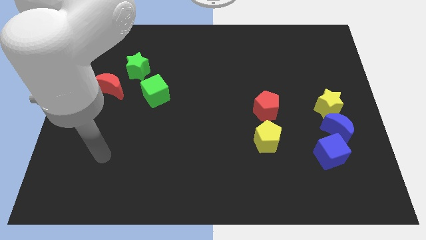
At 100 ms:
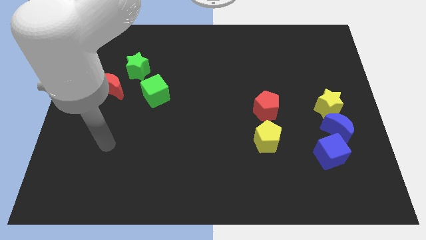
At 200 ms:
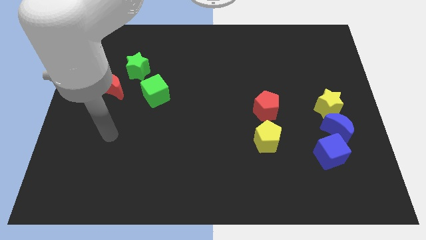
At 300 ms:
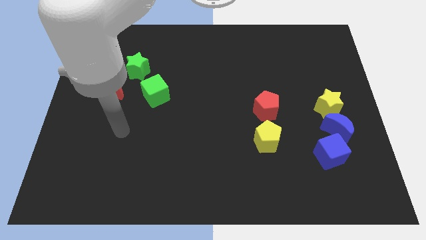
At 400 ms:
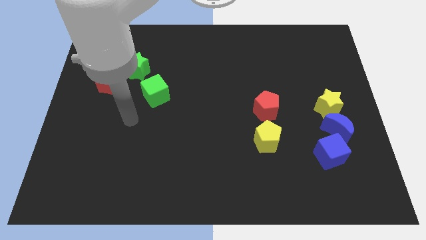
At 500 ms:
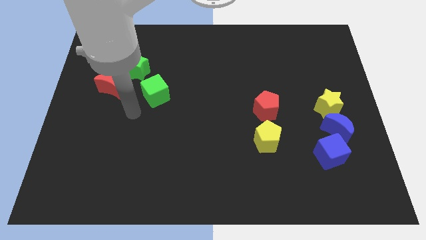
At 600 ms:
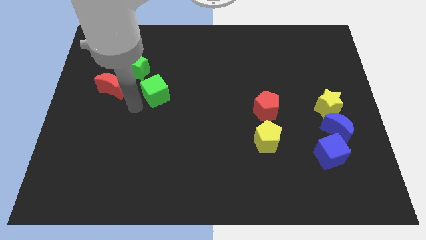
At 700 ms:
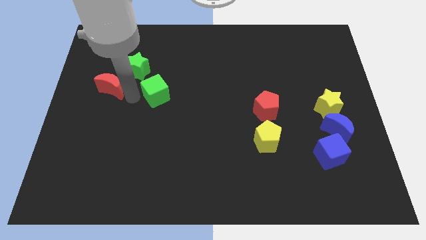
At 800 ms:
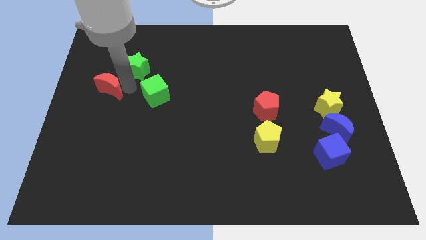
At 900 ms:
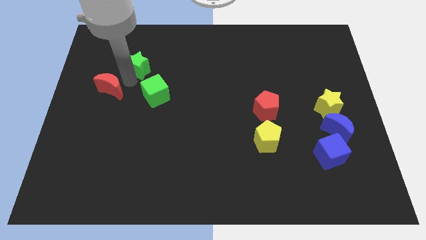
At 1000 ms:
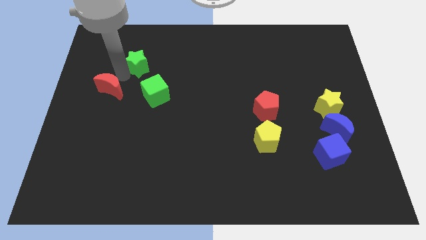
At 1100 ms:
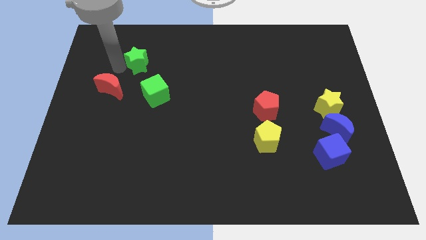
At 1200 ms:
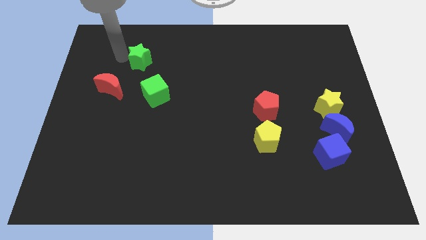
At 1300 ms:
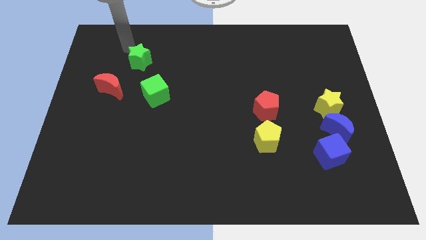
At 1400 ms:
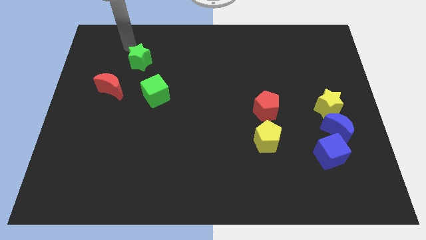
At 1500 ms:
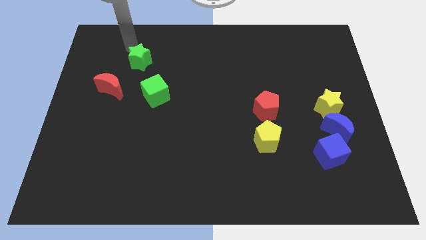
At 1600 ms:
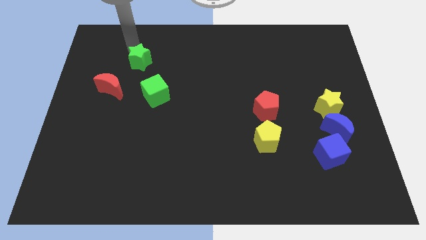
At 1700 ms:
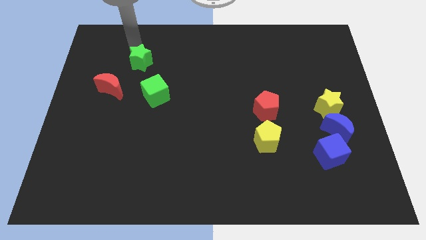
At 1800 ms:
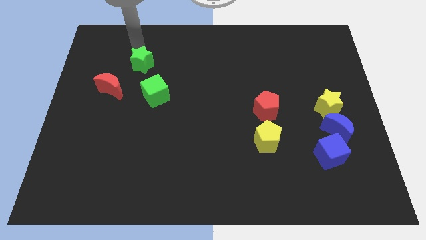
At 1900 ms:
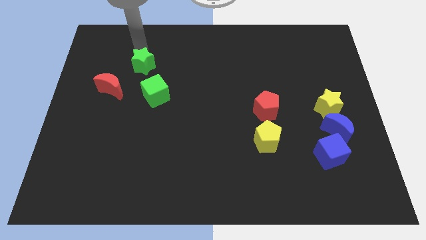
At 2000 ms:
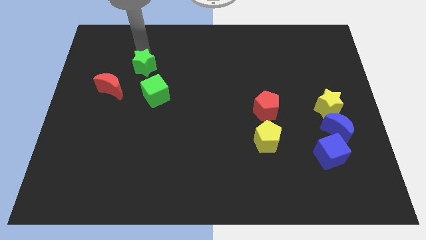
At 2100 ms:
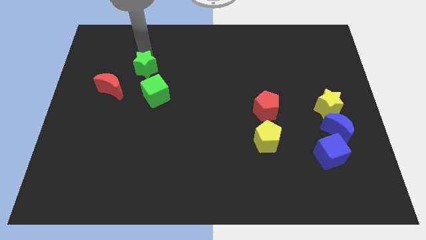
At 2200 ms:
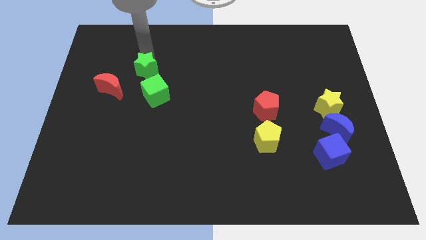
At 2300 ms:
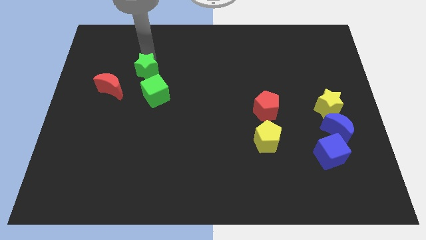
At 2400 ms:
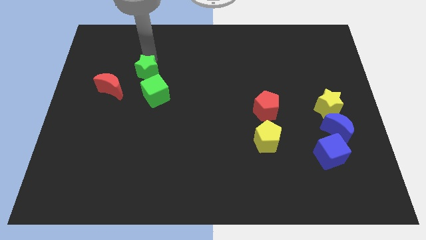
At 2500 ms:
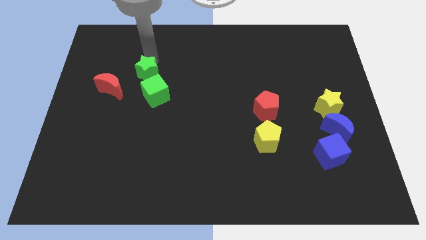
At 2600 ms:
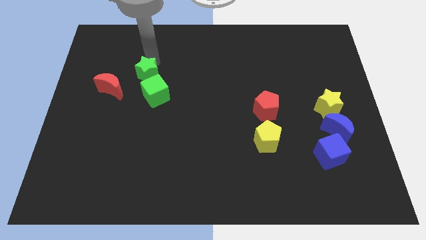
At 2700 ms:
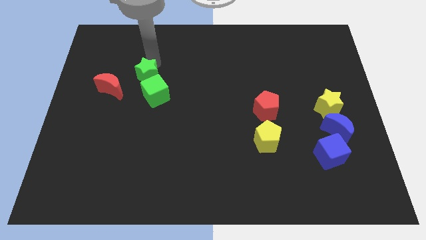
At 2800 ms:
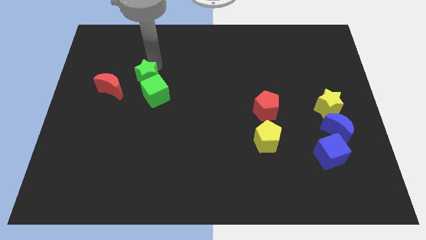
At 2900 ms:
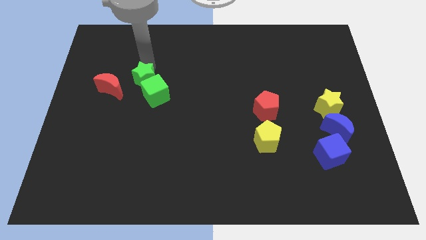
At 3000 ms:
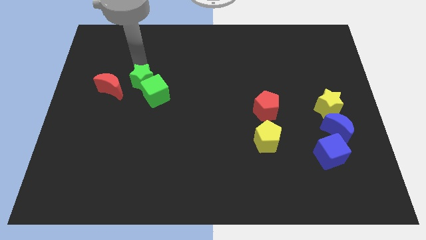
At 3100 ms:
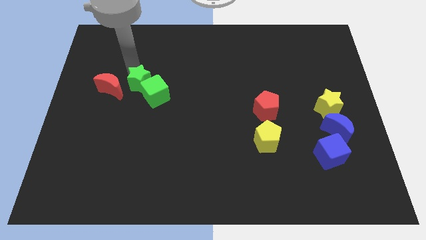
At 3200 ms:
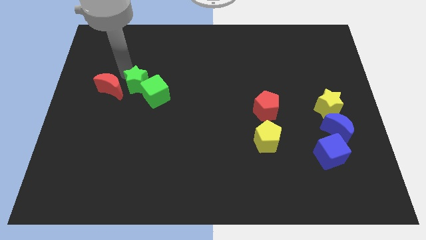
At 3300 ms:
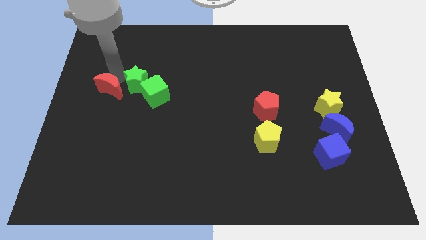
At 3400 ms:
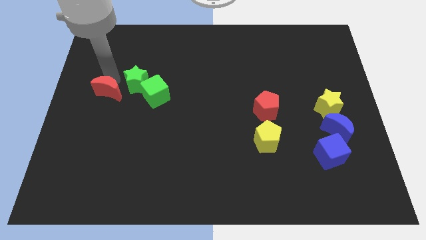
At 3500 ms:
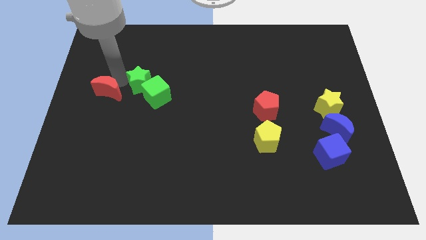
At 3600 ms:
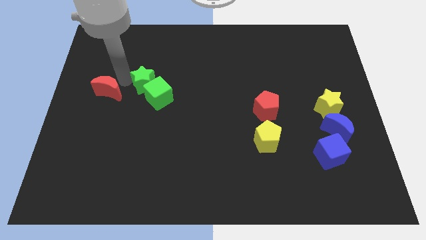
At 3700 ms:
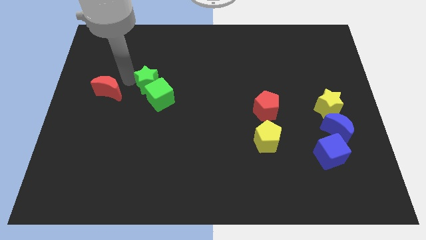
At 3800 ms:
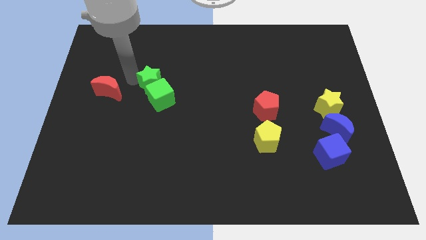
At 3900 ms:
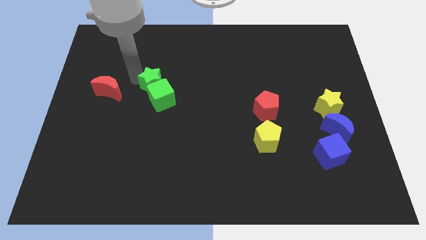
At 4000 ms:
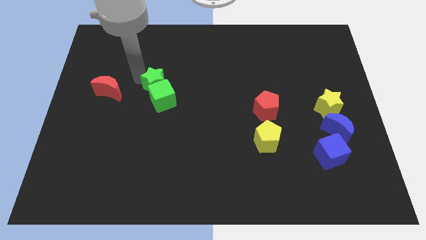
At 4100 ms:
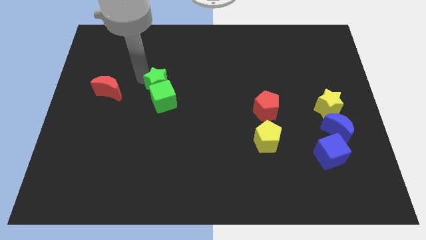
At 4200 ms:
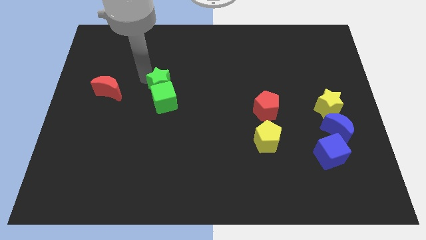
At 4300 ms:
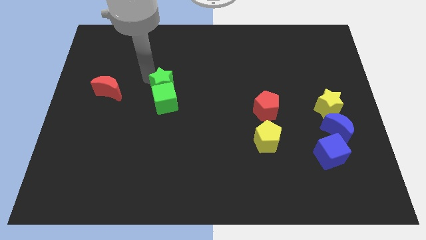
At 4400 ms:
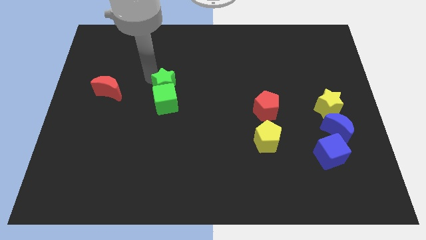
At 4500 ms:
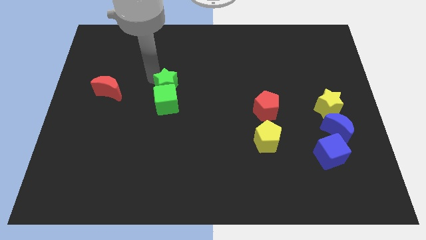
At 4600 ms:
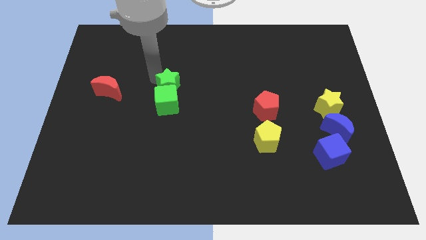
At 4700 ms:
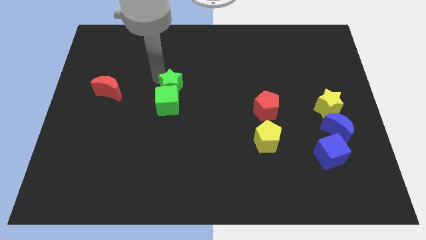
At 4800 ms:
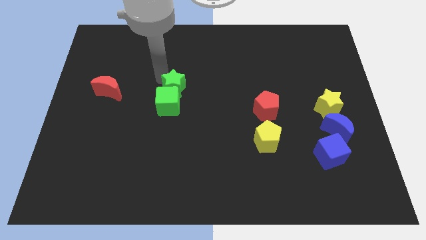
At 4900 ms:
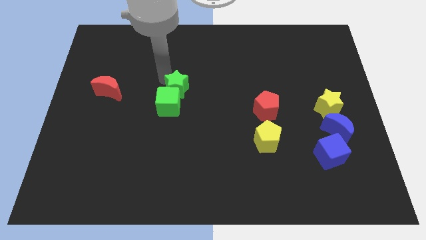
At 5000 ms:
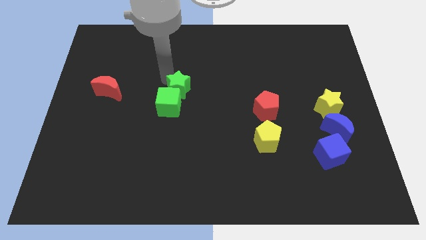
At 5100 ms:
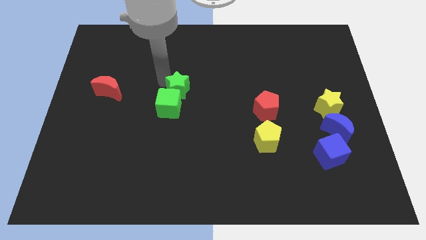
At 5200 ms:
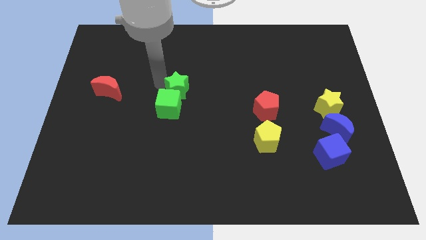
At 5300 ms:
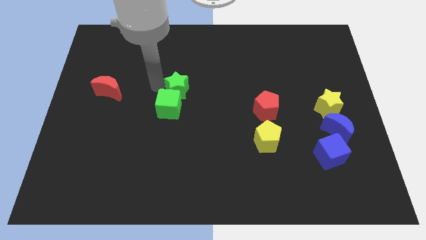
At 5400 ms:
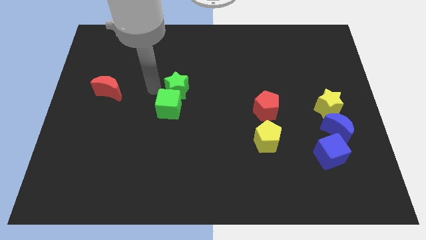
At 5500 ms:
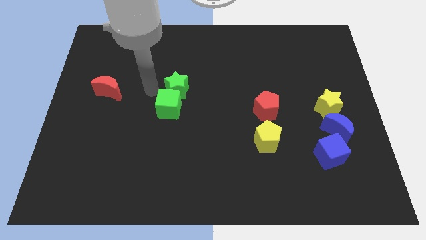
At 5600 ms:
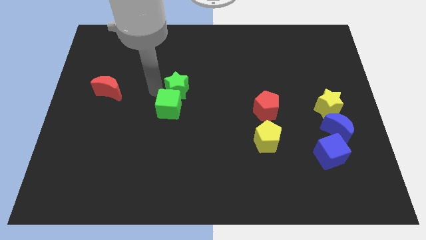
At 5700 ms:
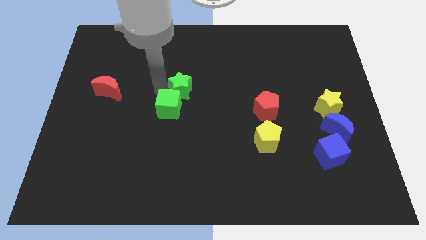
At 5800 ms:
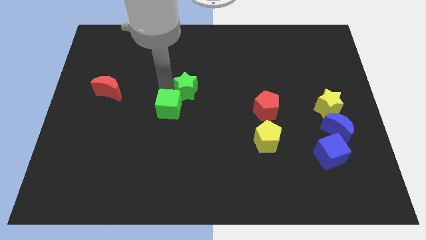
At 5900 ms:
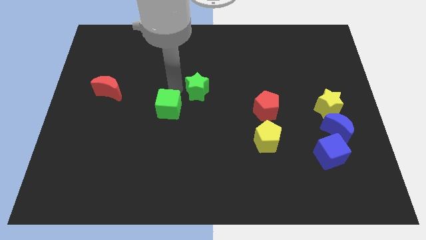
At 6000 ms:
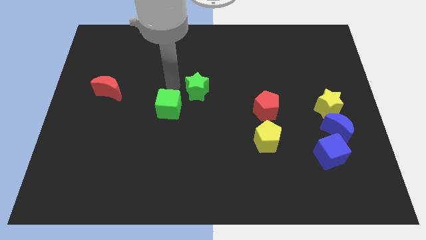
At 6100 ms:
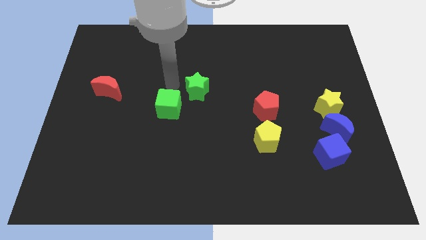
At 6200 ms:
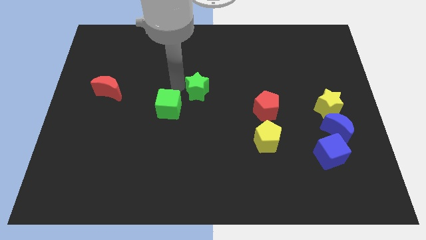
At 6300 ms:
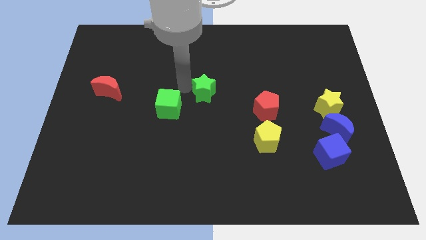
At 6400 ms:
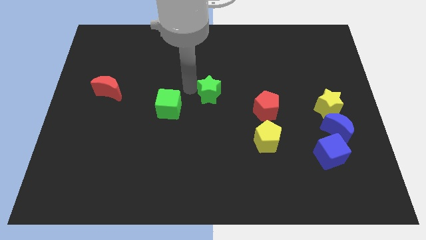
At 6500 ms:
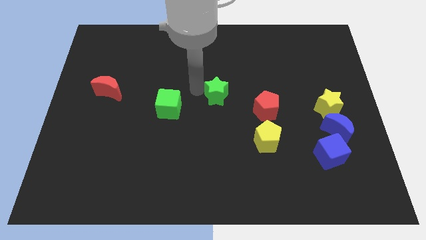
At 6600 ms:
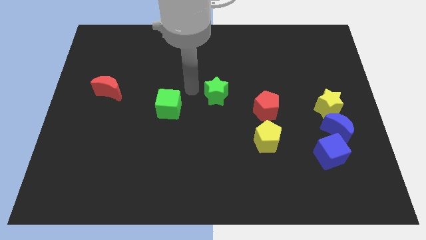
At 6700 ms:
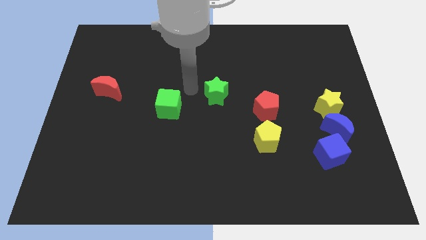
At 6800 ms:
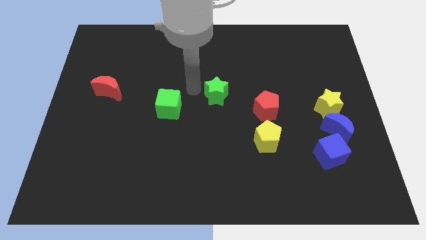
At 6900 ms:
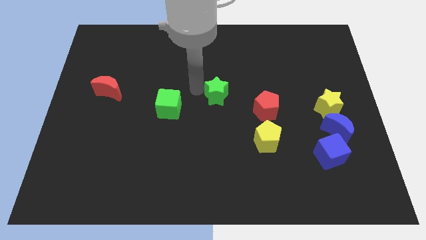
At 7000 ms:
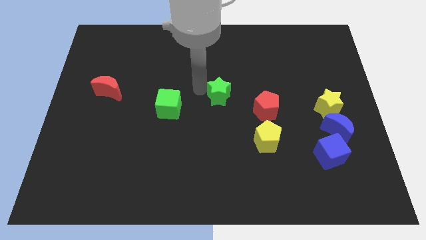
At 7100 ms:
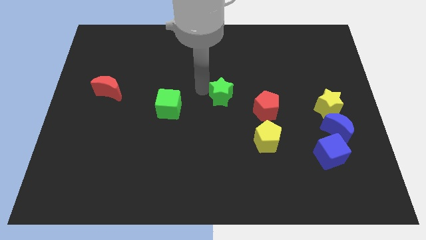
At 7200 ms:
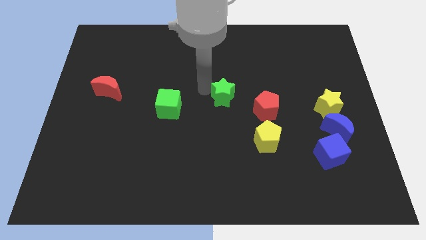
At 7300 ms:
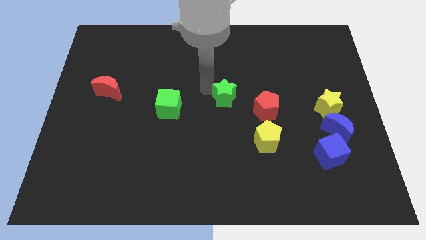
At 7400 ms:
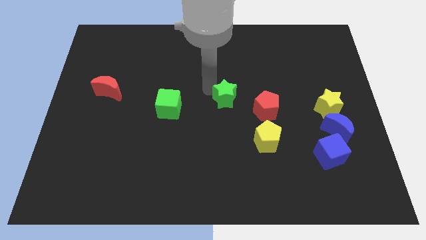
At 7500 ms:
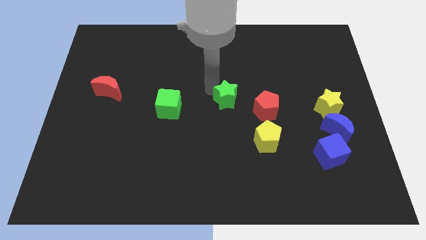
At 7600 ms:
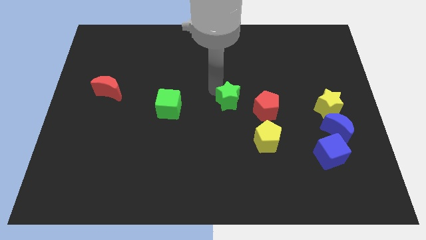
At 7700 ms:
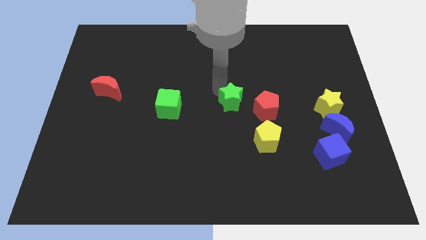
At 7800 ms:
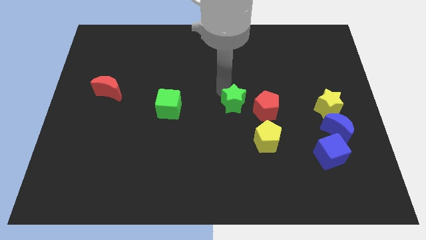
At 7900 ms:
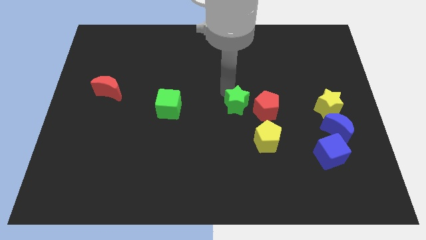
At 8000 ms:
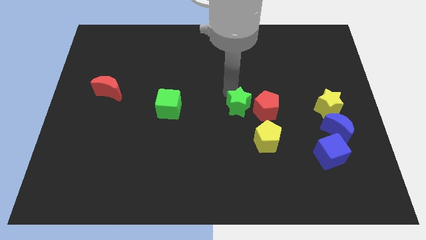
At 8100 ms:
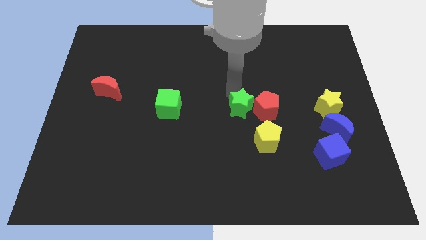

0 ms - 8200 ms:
slide the green star to the red pentagon
